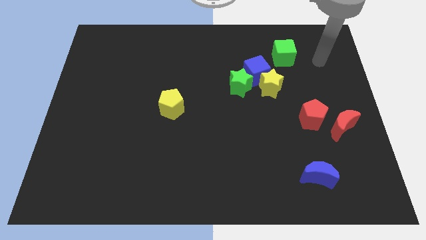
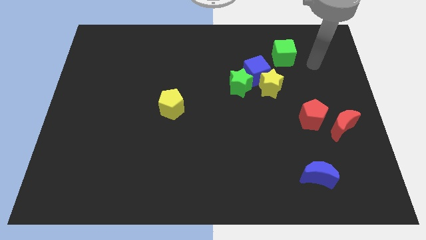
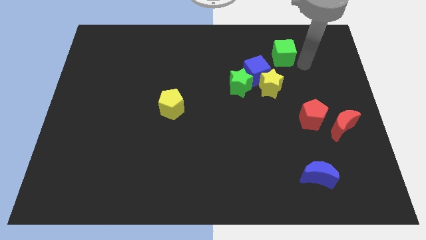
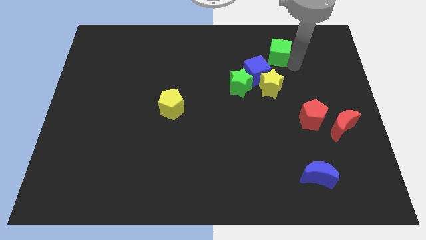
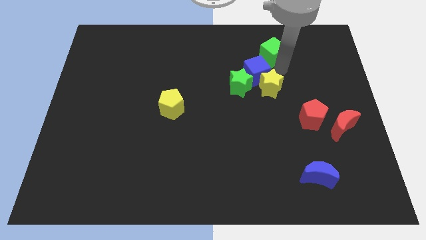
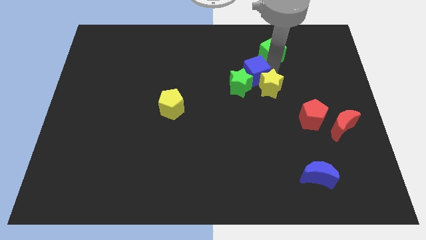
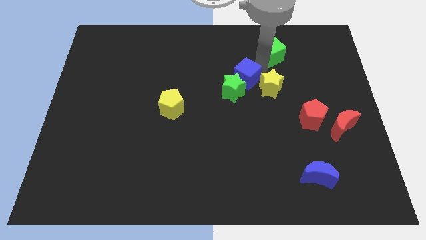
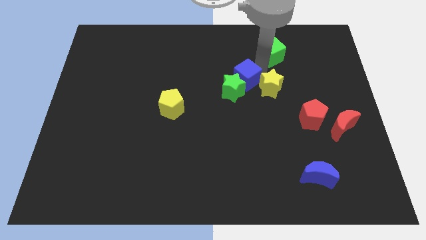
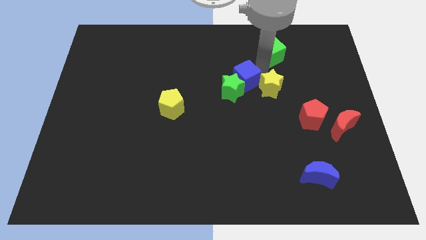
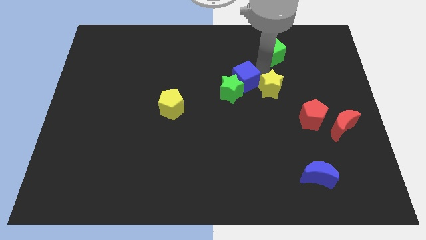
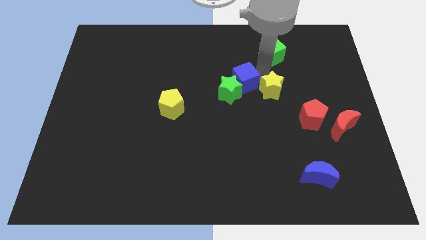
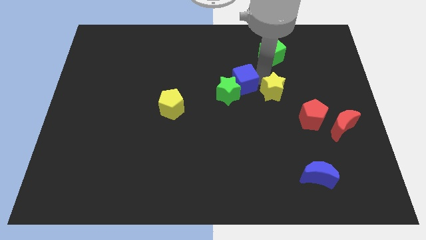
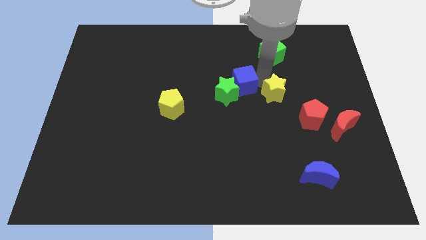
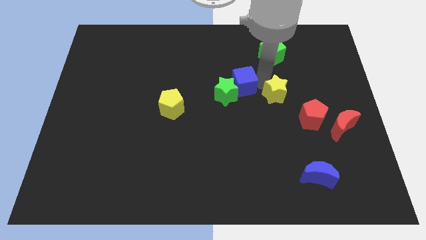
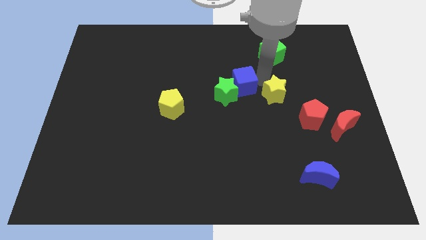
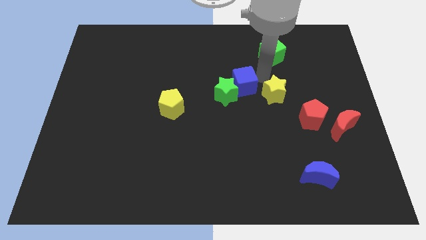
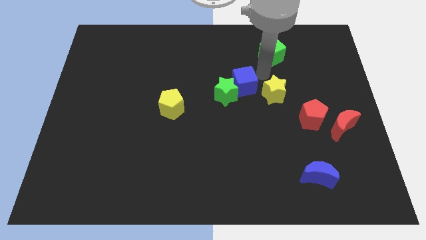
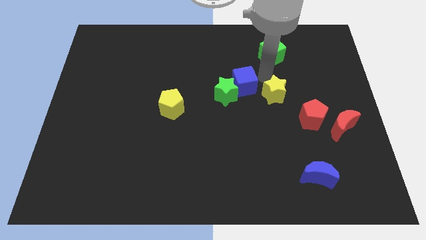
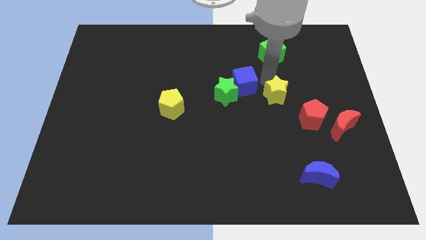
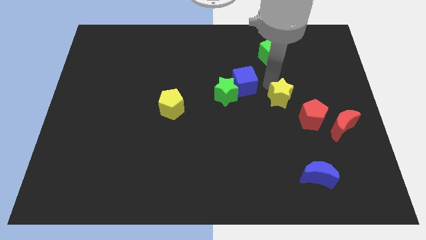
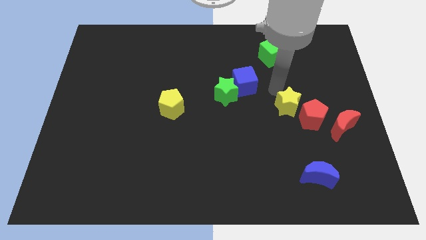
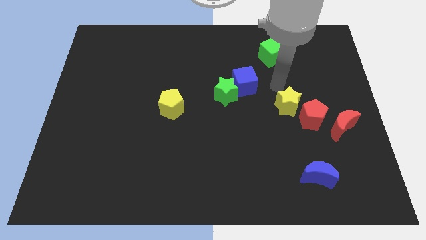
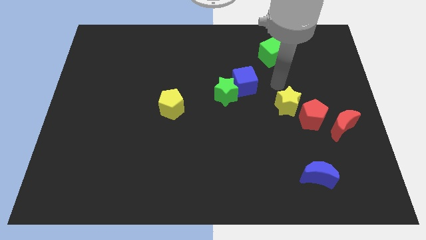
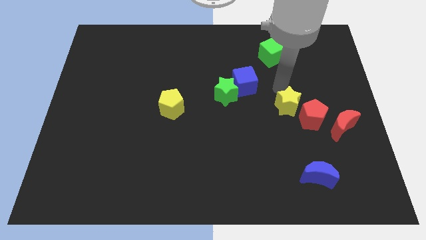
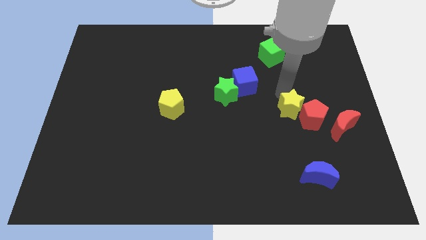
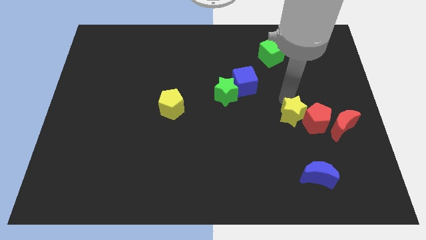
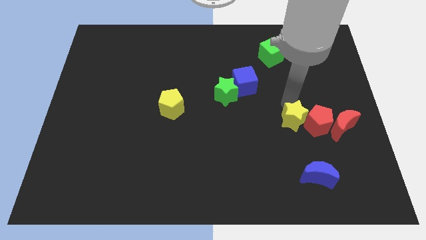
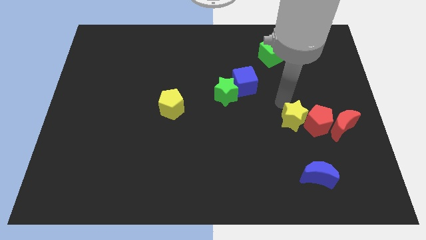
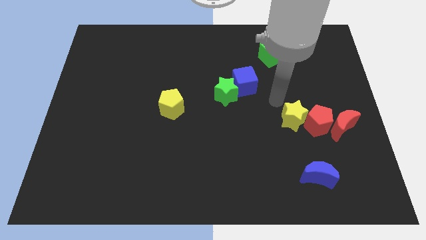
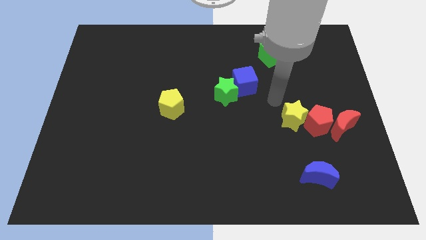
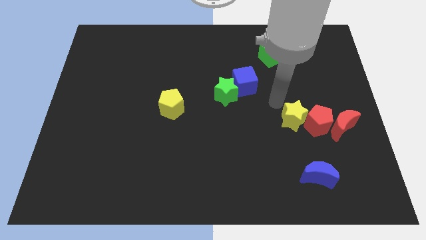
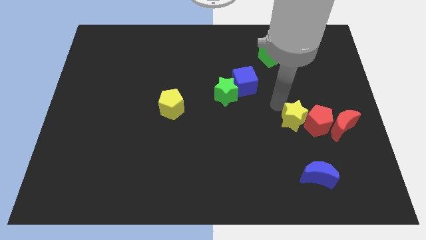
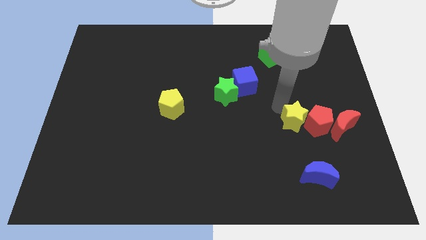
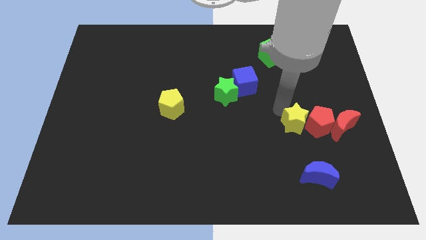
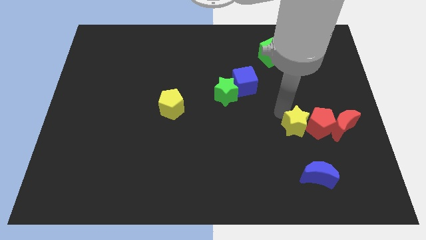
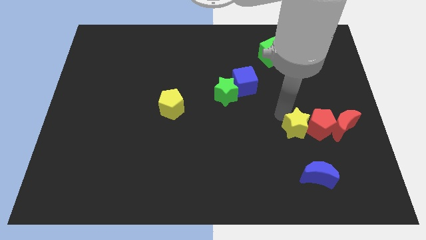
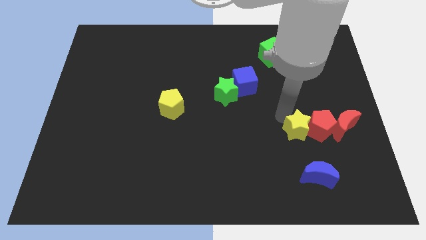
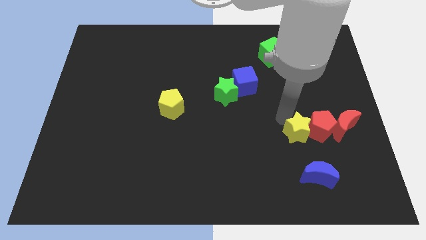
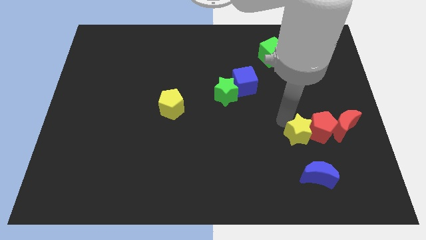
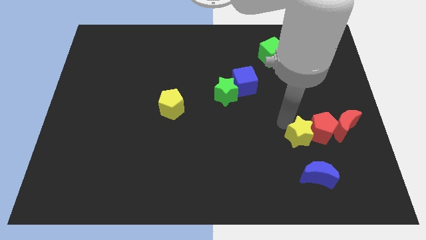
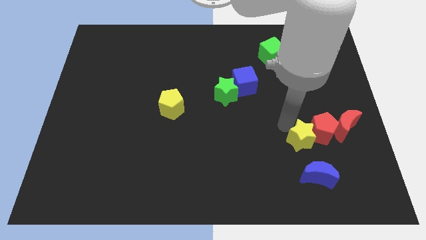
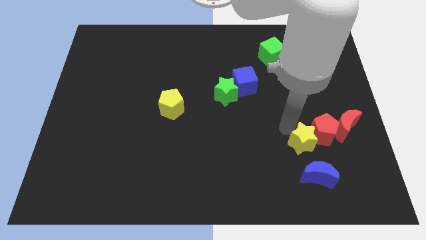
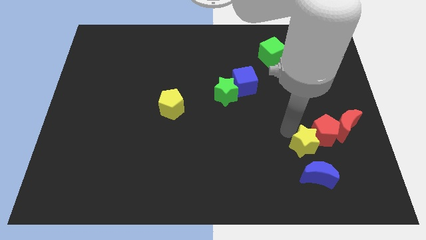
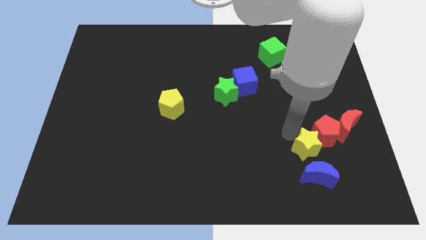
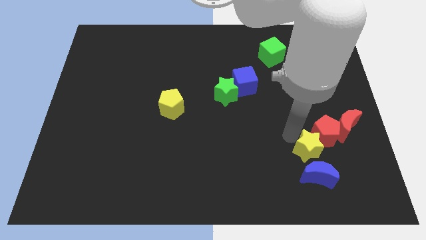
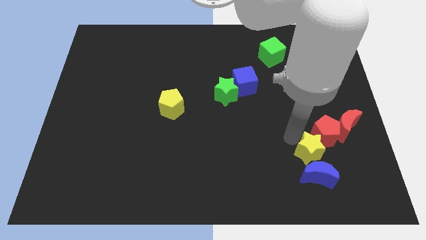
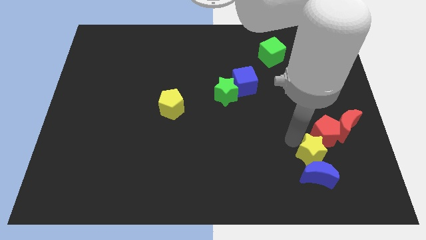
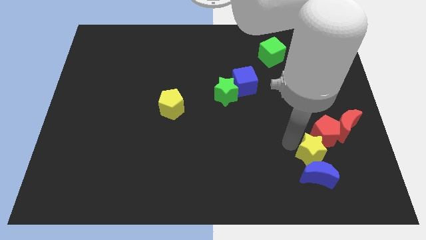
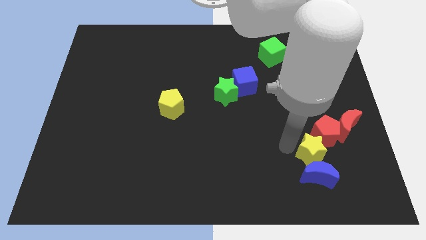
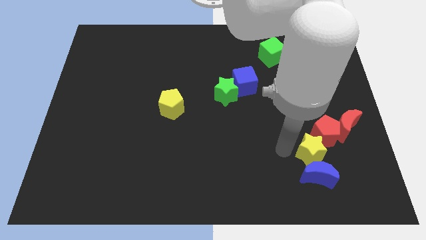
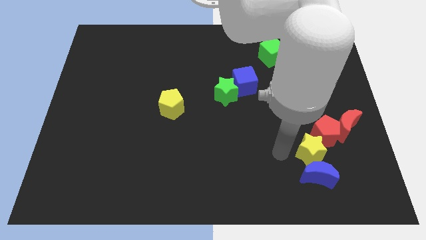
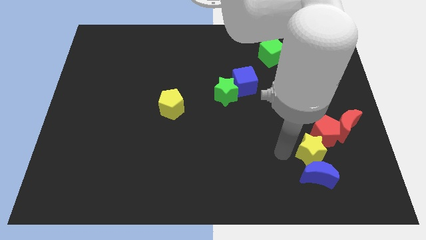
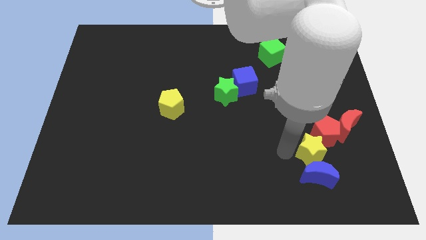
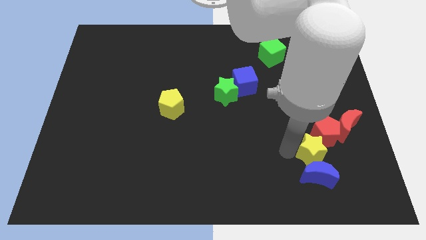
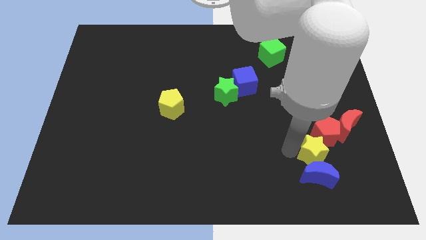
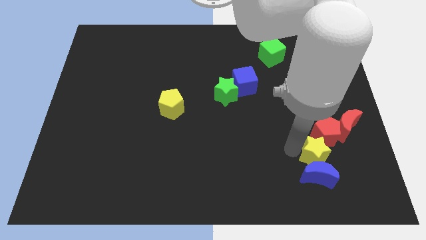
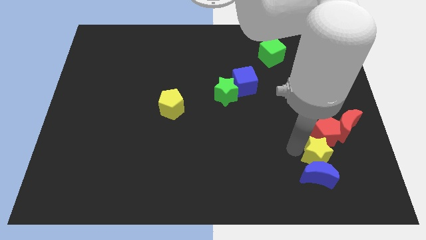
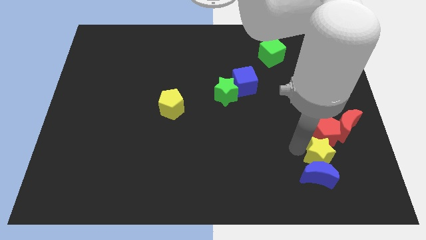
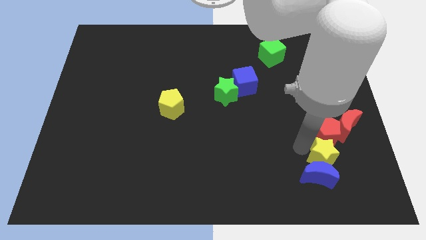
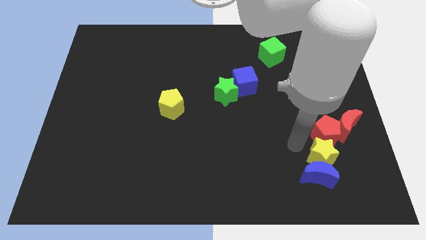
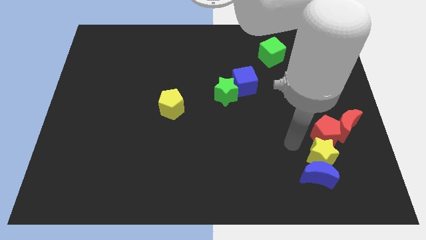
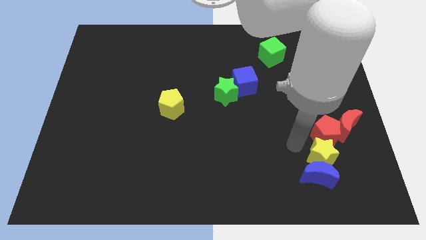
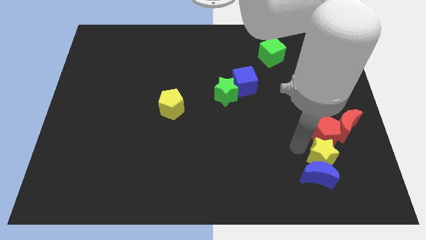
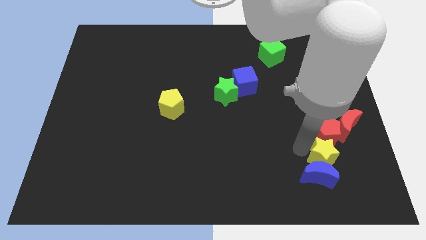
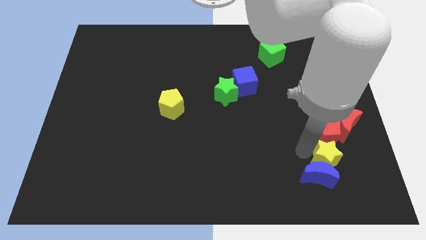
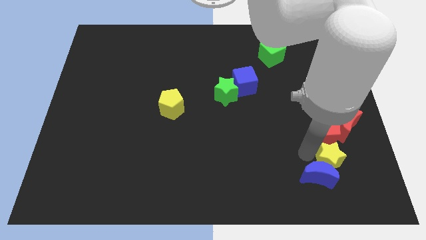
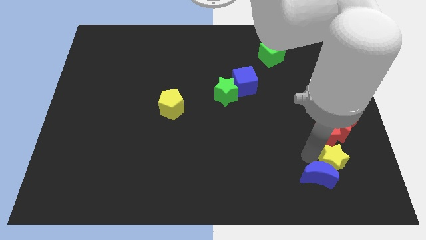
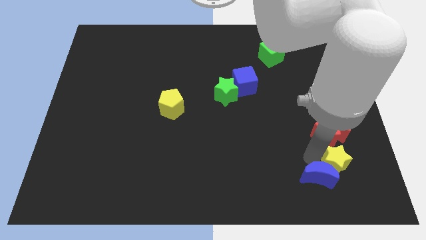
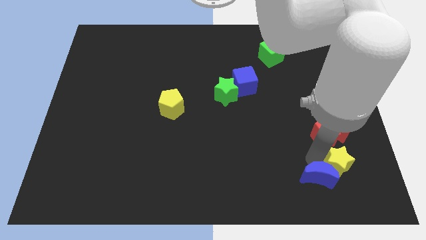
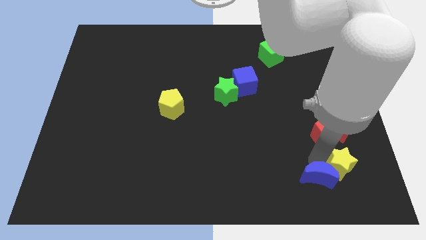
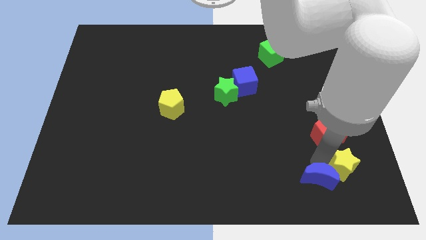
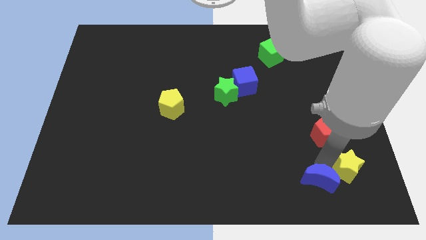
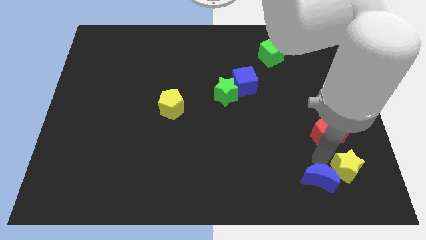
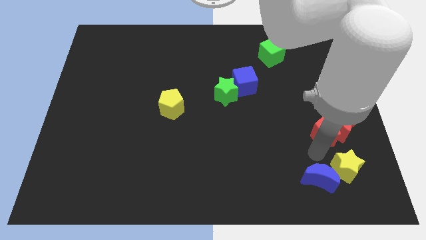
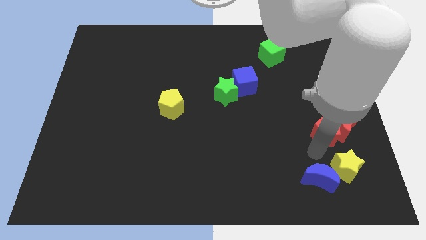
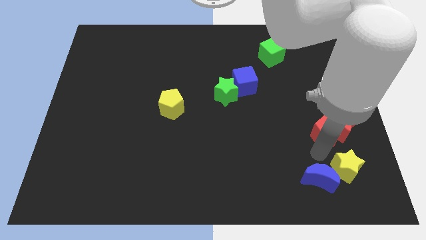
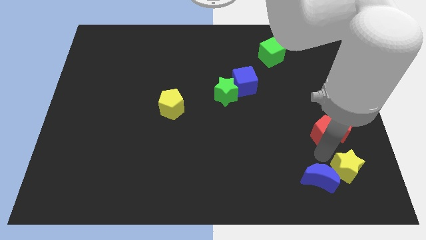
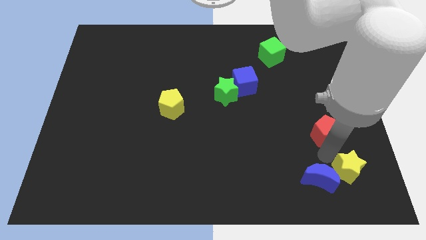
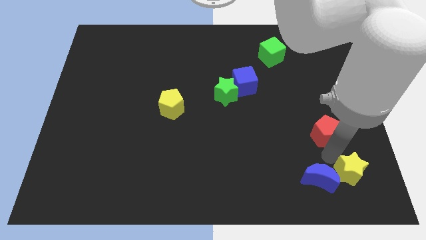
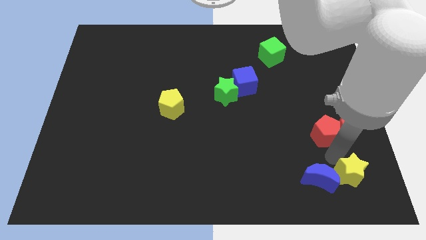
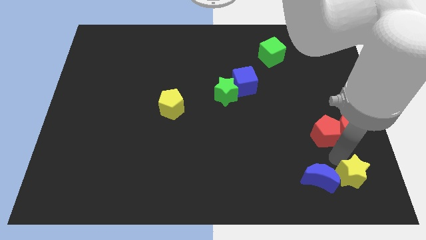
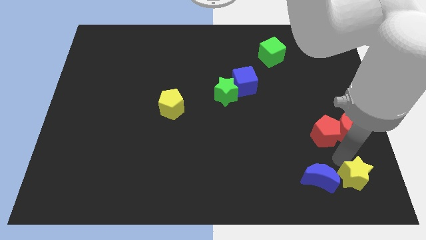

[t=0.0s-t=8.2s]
push the yellow star to the bottom right corner
